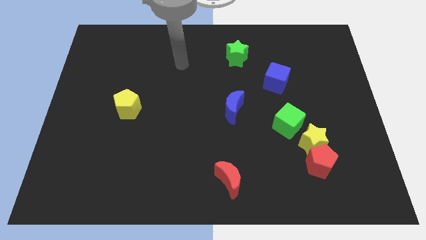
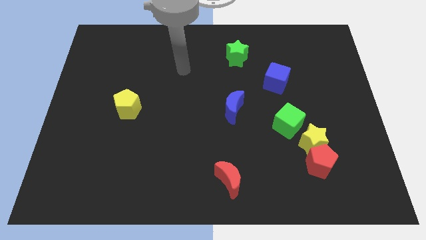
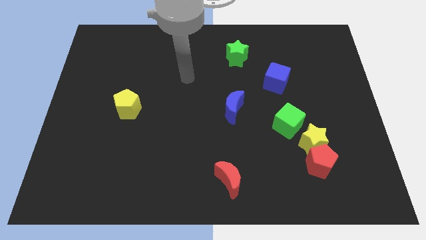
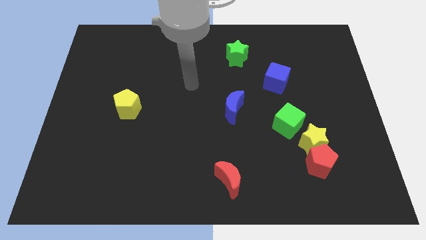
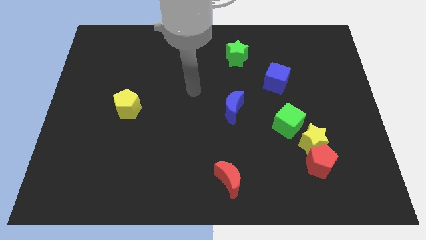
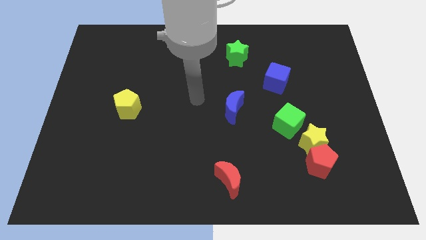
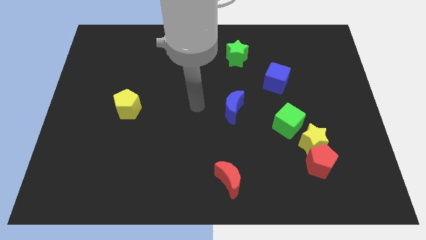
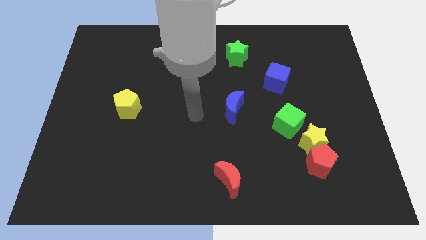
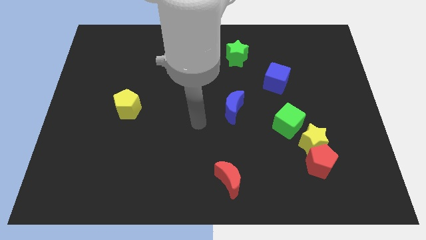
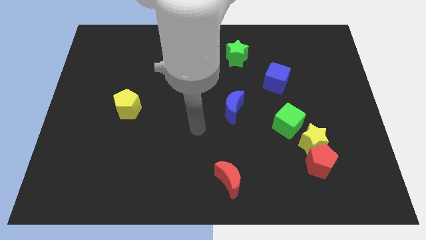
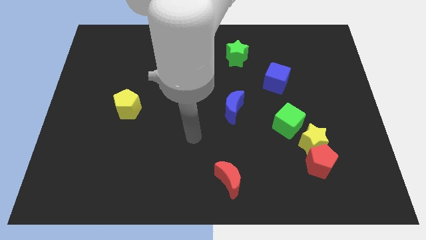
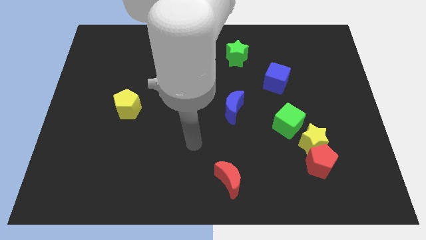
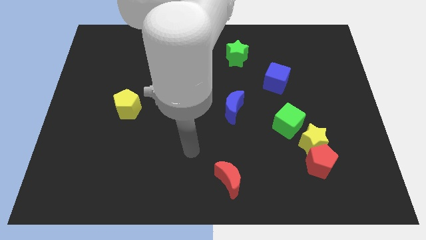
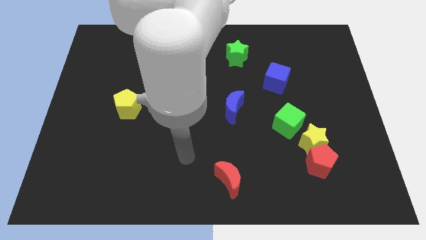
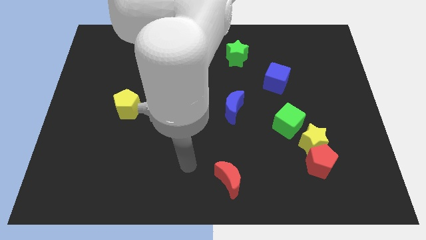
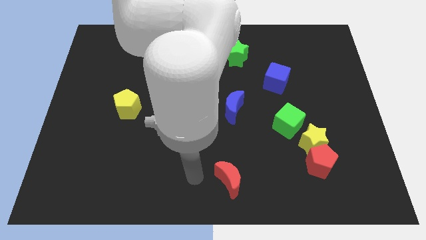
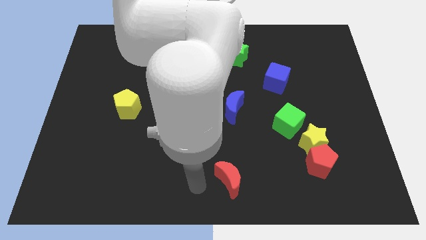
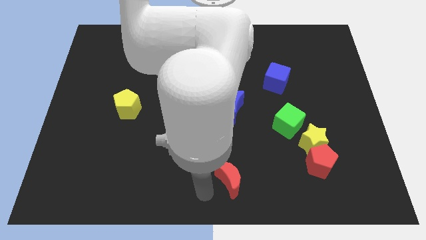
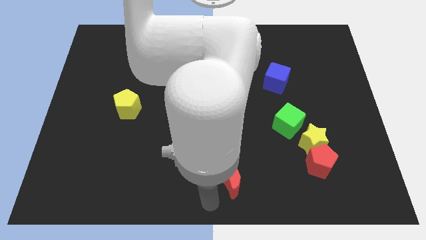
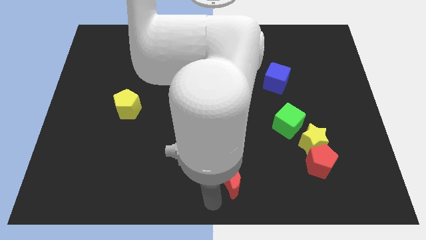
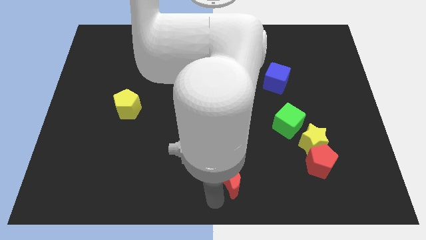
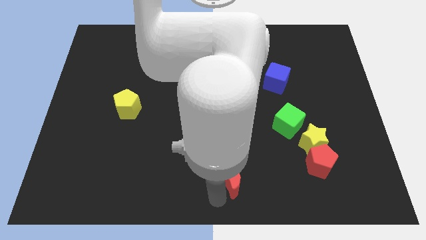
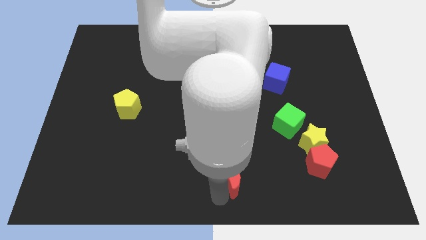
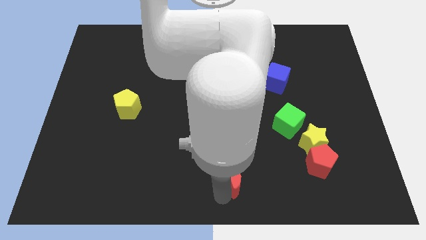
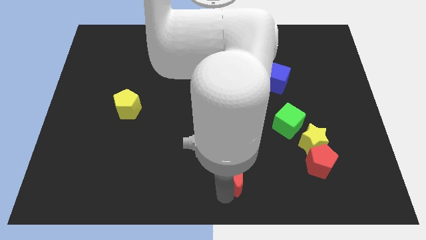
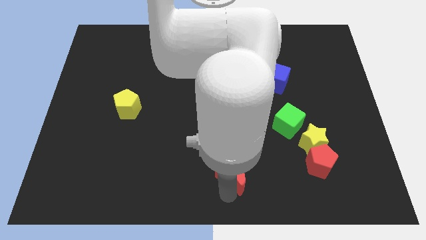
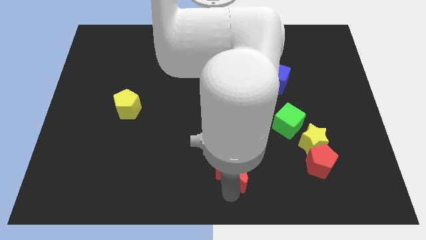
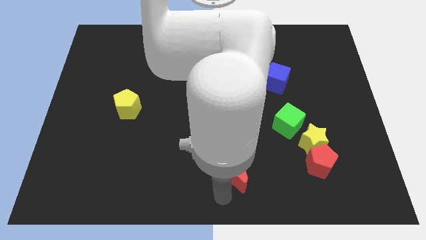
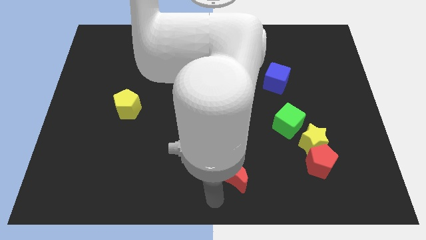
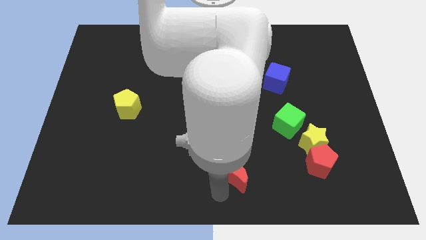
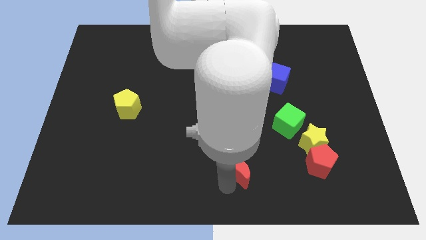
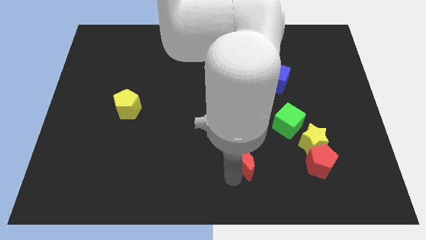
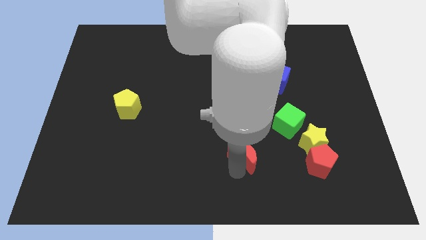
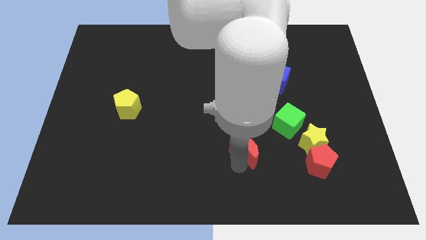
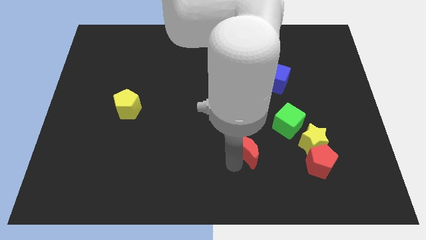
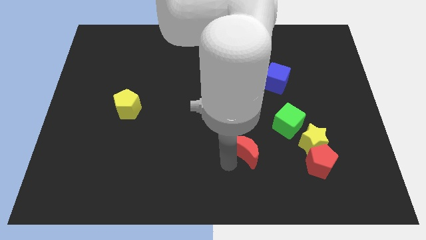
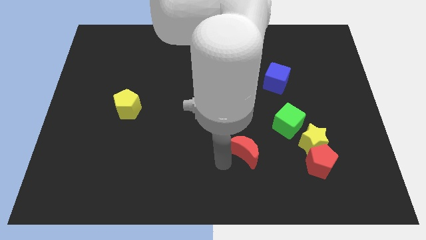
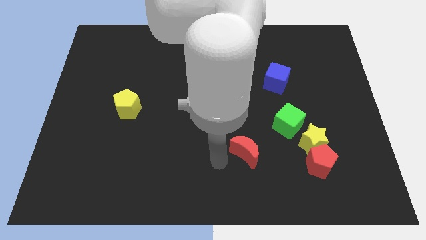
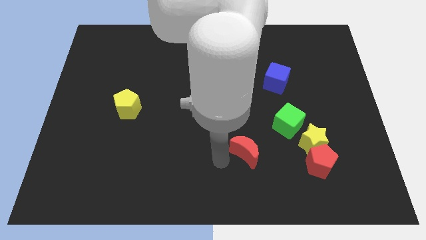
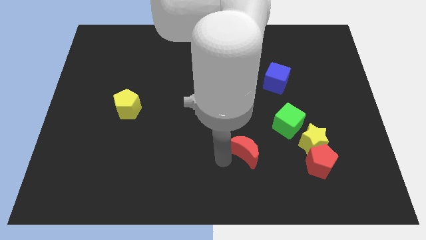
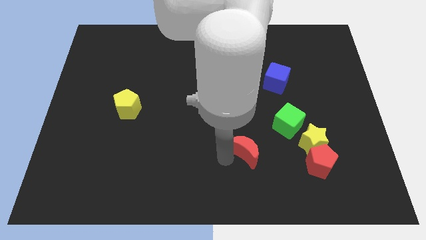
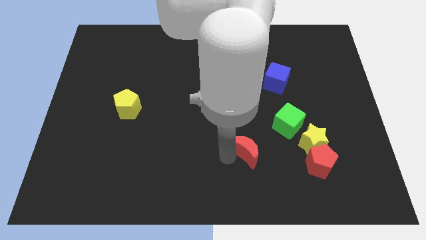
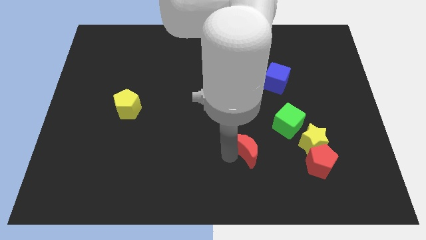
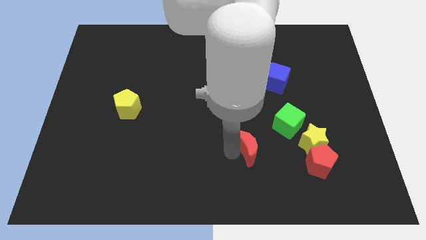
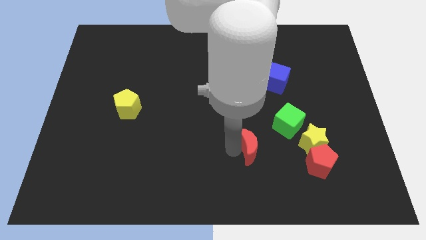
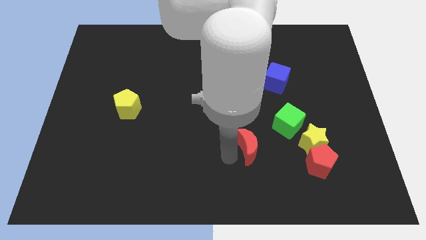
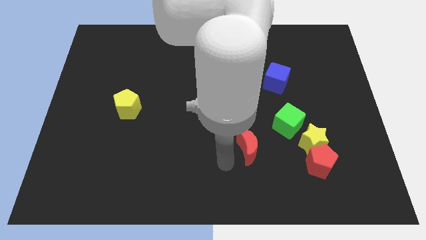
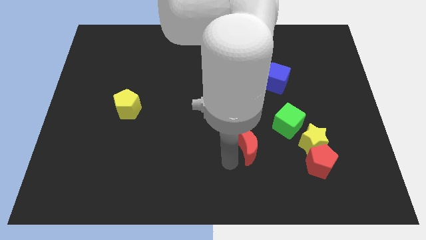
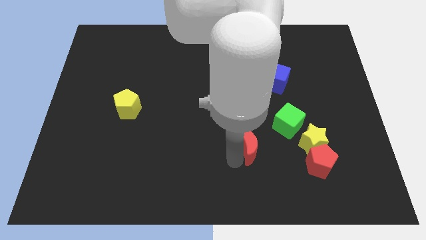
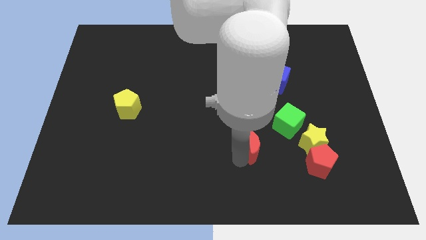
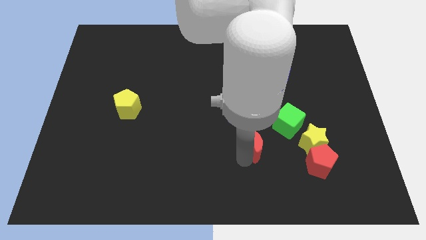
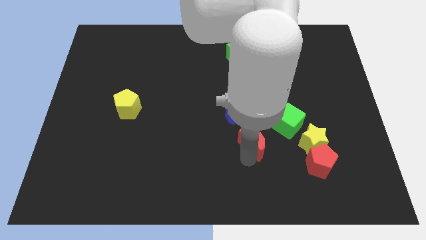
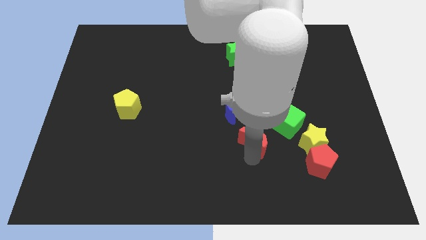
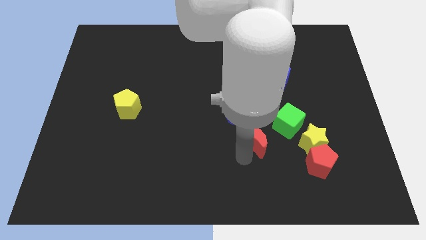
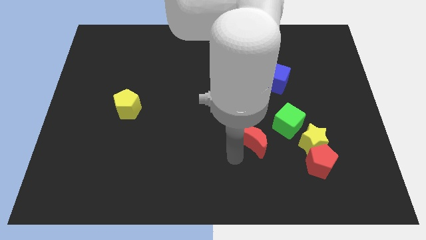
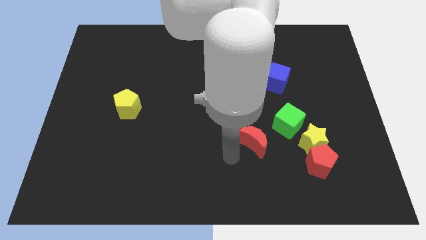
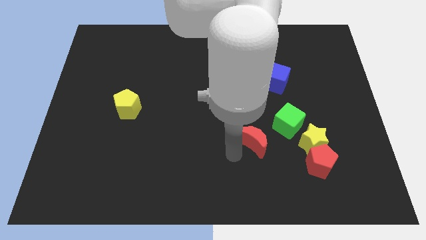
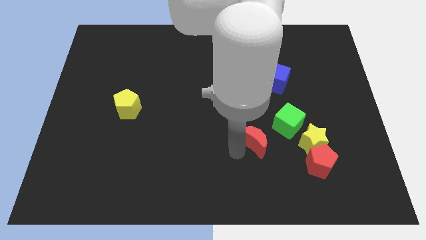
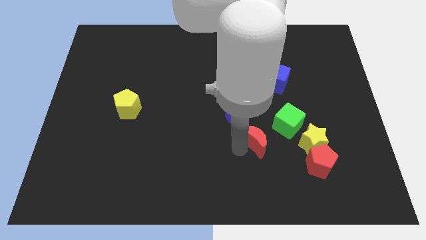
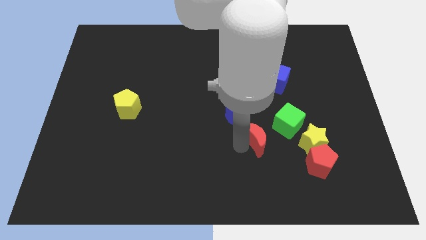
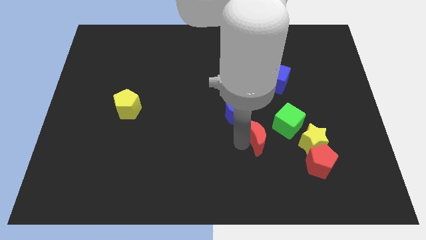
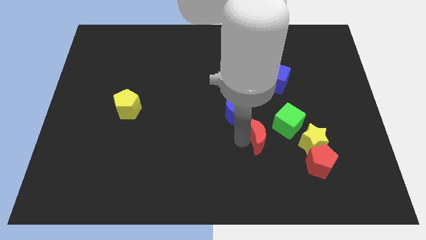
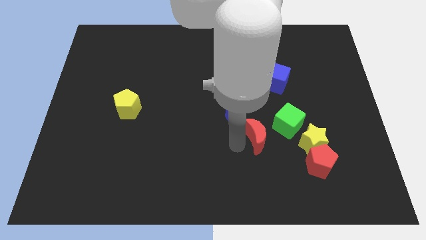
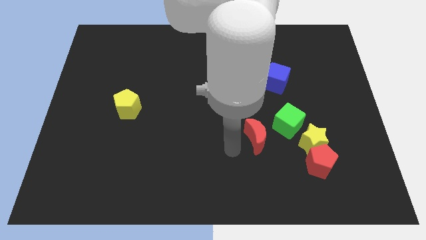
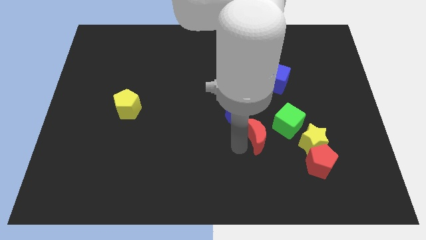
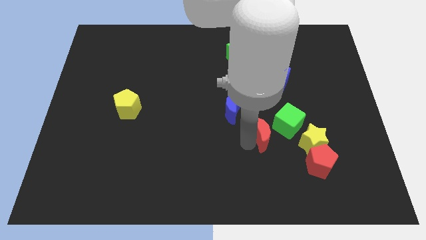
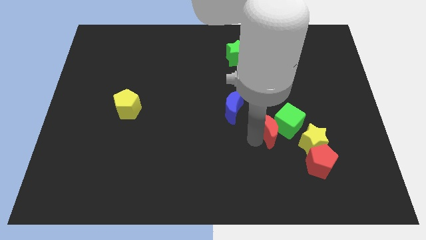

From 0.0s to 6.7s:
push the red moon to the green cube
